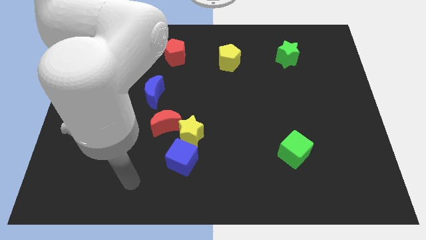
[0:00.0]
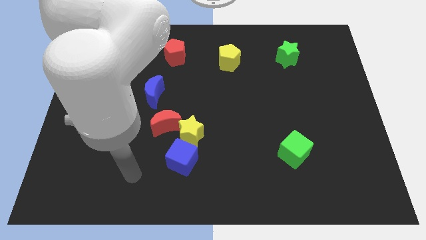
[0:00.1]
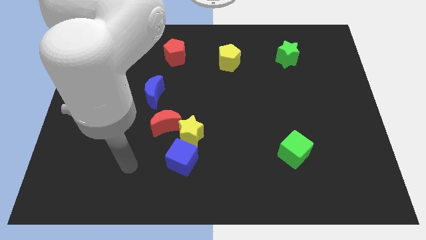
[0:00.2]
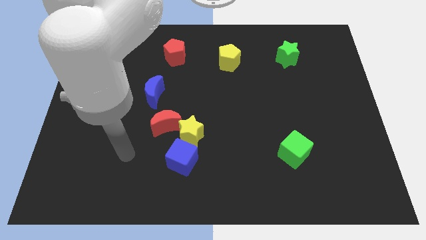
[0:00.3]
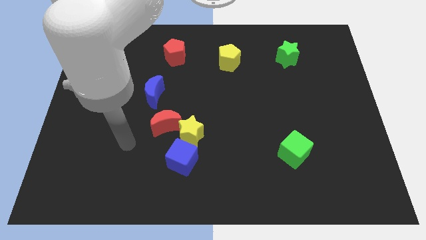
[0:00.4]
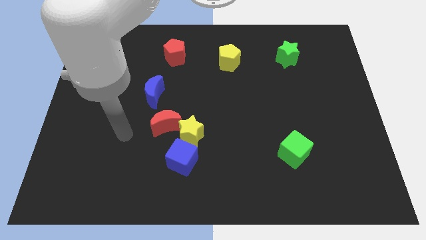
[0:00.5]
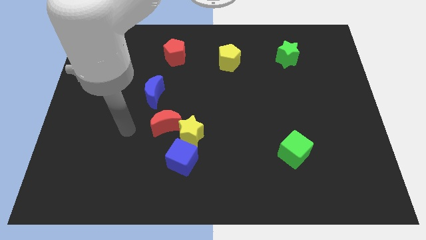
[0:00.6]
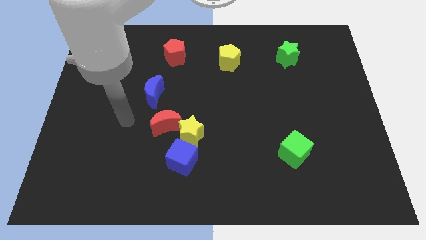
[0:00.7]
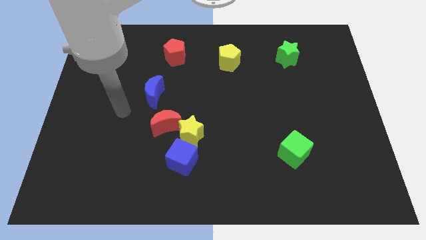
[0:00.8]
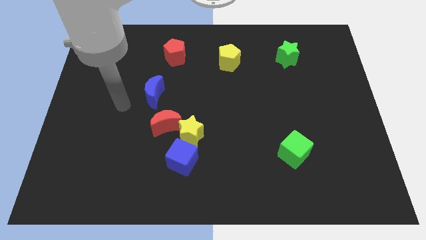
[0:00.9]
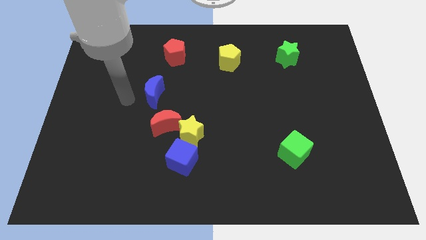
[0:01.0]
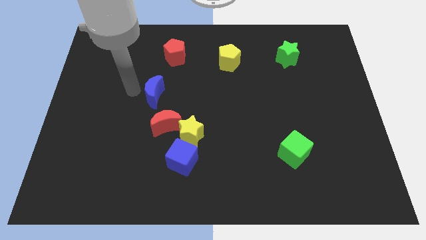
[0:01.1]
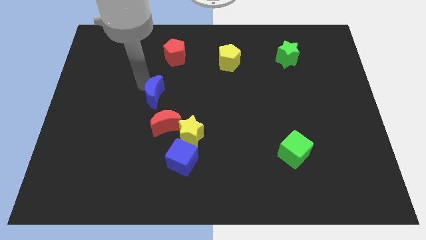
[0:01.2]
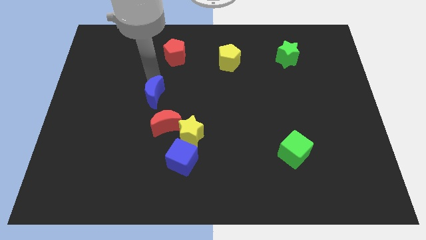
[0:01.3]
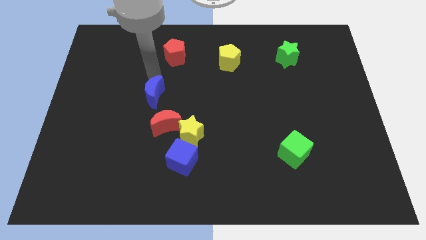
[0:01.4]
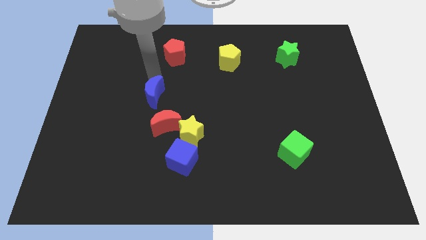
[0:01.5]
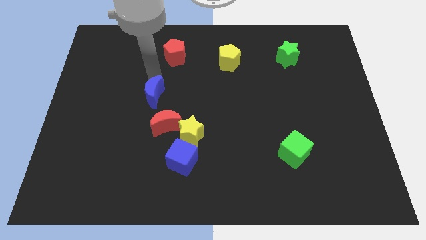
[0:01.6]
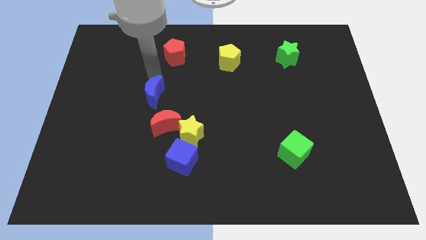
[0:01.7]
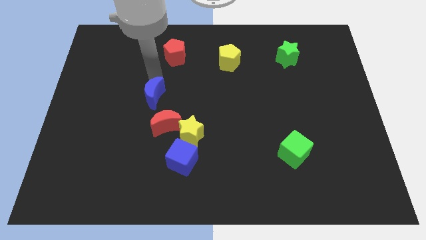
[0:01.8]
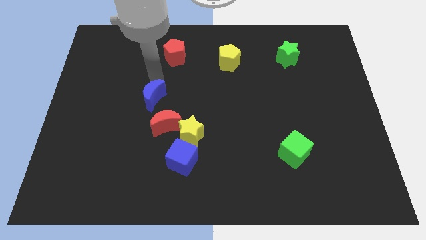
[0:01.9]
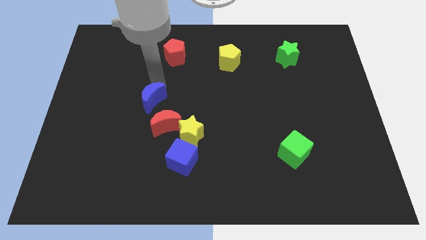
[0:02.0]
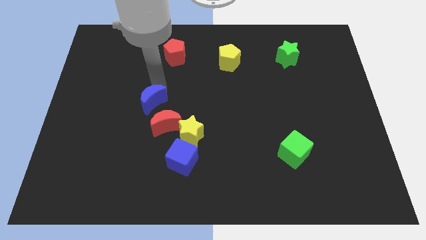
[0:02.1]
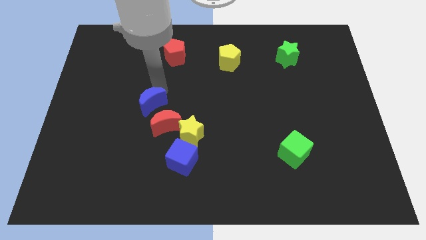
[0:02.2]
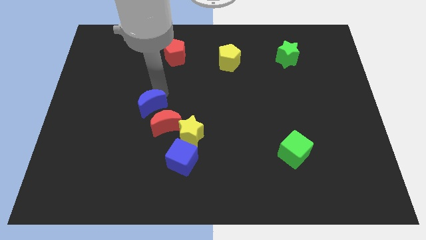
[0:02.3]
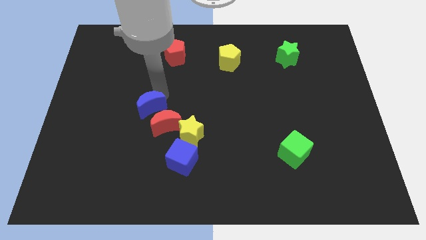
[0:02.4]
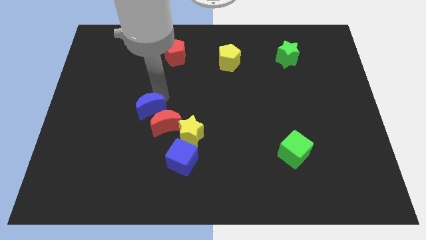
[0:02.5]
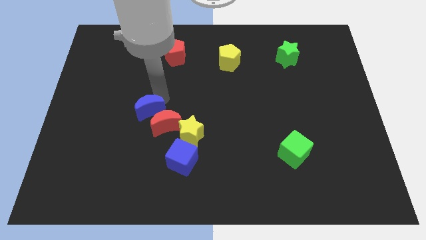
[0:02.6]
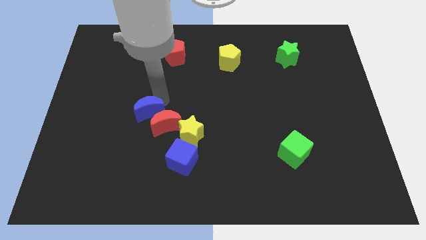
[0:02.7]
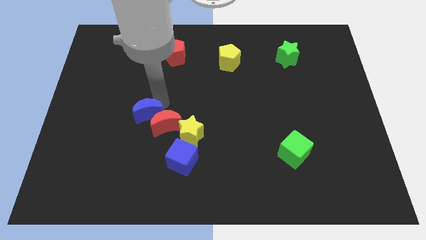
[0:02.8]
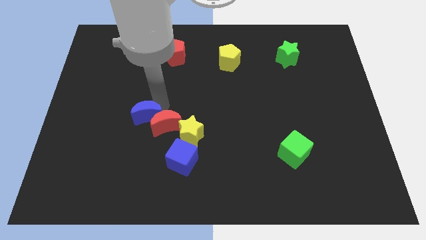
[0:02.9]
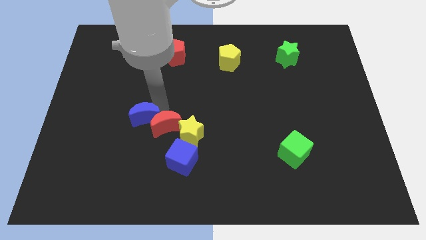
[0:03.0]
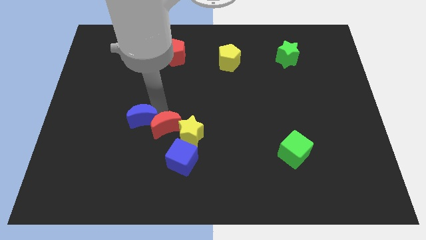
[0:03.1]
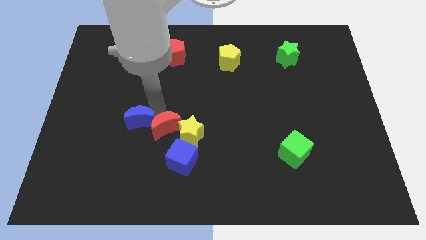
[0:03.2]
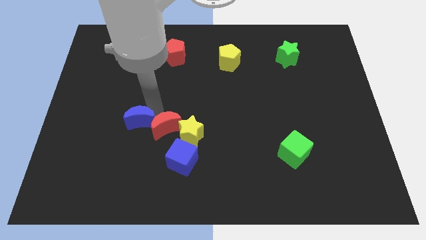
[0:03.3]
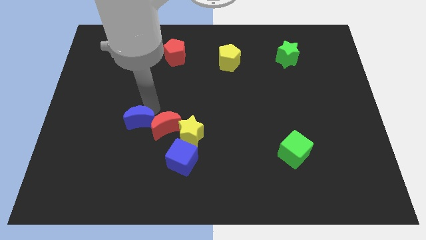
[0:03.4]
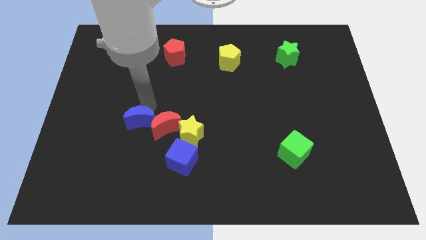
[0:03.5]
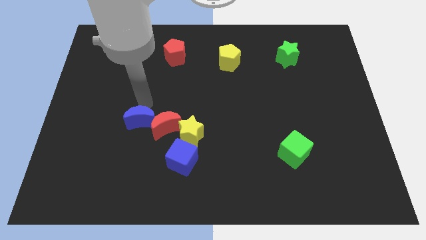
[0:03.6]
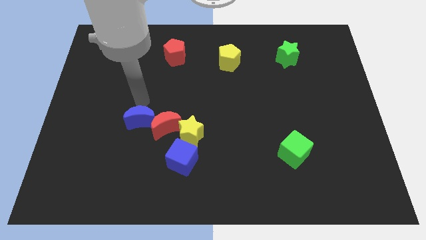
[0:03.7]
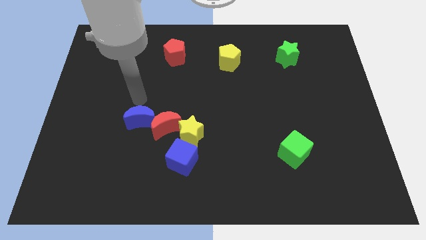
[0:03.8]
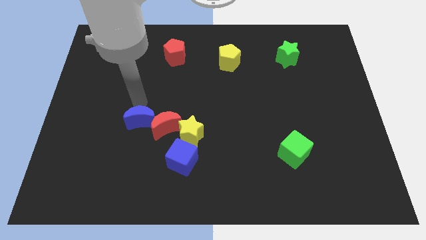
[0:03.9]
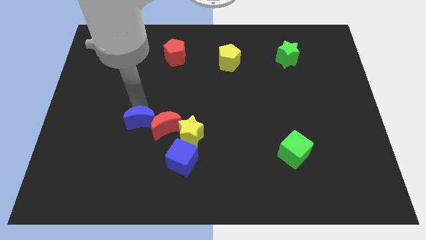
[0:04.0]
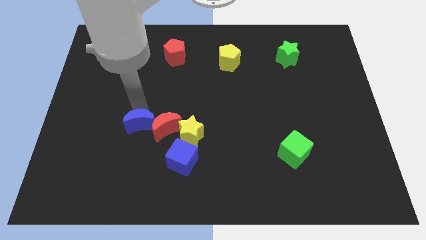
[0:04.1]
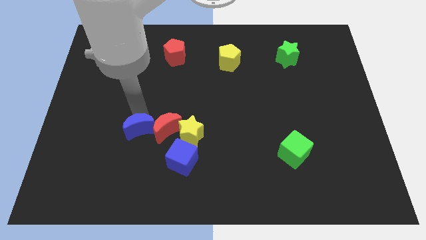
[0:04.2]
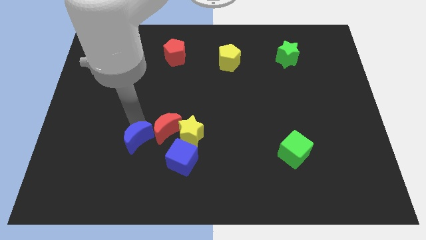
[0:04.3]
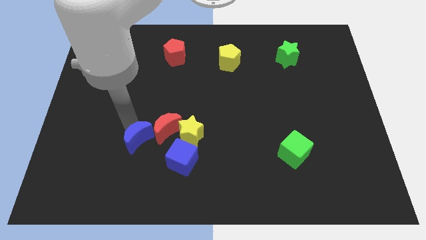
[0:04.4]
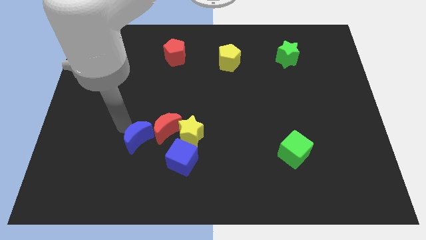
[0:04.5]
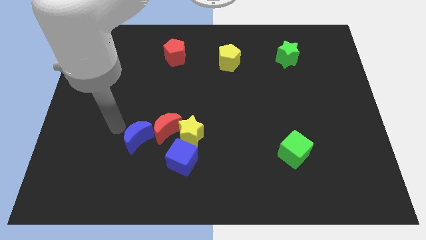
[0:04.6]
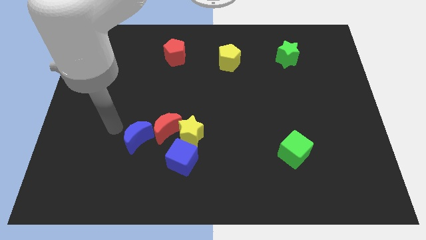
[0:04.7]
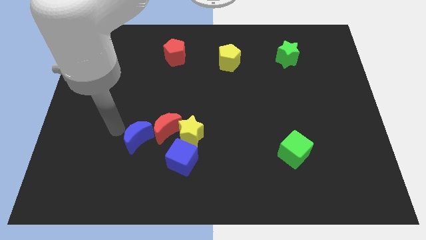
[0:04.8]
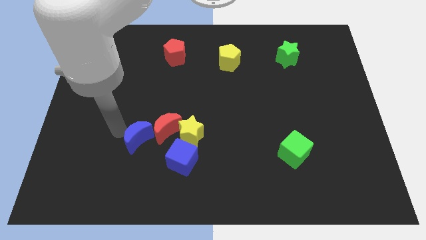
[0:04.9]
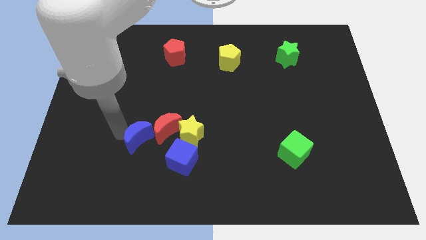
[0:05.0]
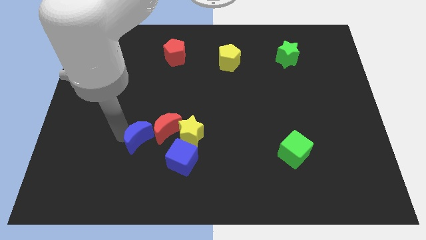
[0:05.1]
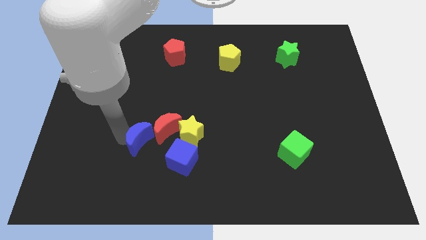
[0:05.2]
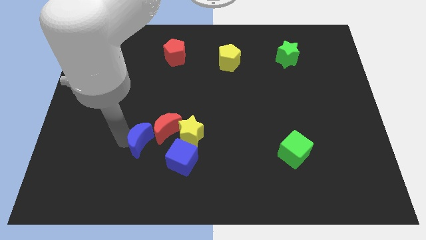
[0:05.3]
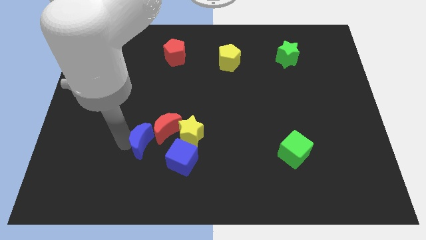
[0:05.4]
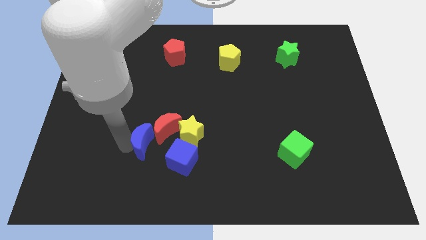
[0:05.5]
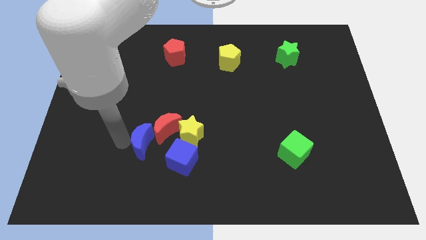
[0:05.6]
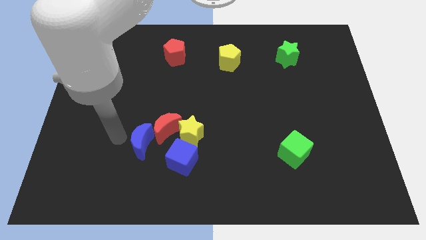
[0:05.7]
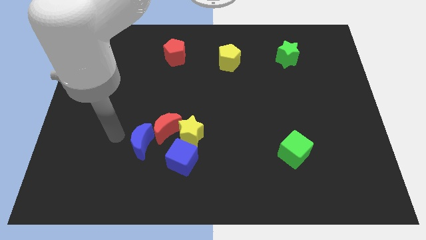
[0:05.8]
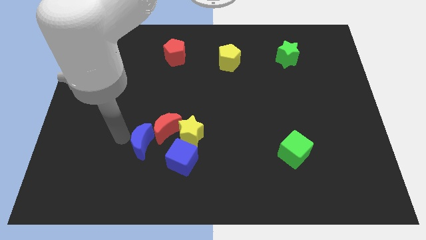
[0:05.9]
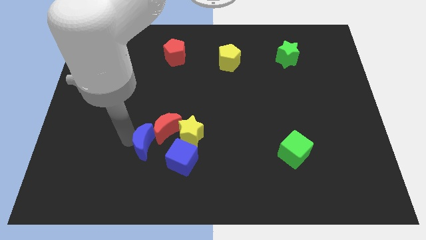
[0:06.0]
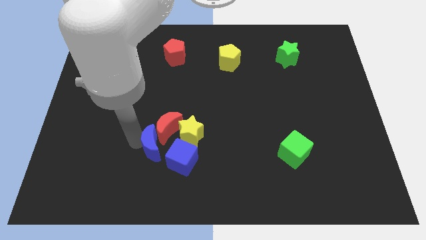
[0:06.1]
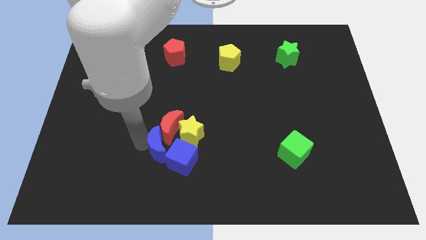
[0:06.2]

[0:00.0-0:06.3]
put the blue moon to the blue cube

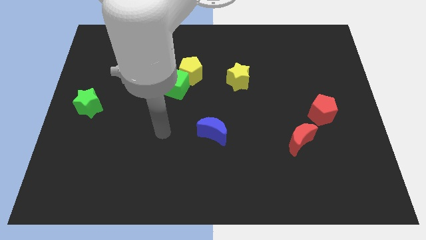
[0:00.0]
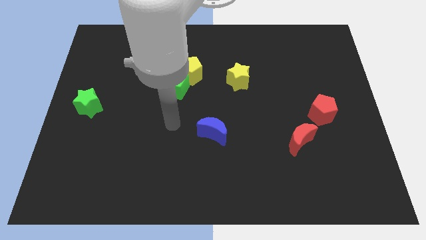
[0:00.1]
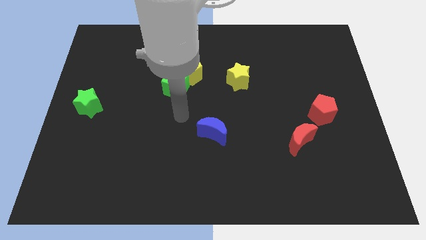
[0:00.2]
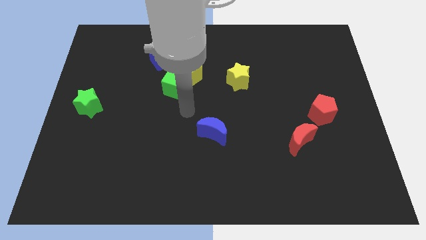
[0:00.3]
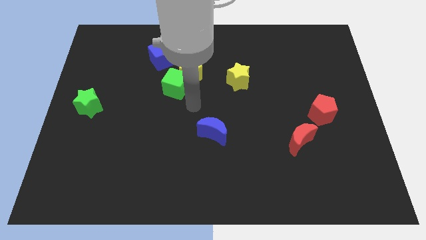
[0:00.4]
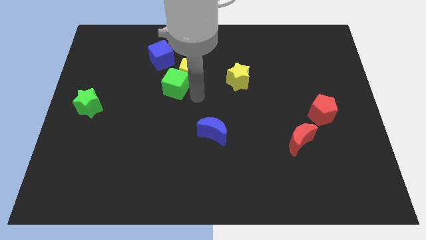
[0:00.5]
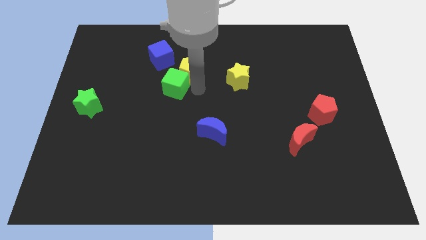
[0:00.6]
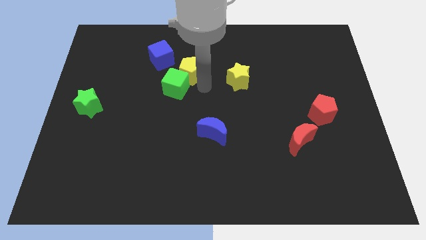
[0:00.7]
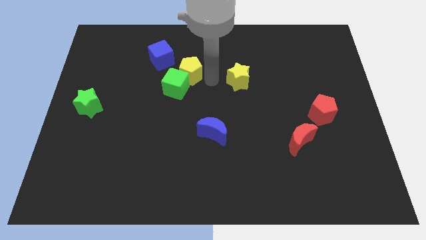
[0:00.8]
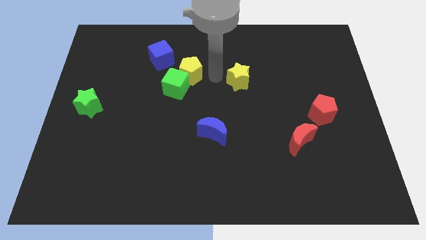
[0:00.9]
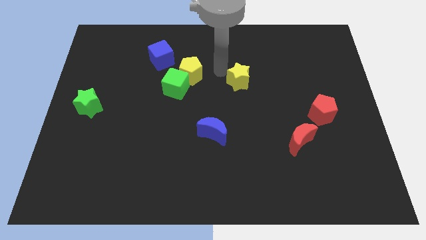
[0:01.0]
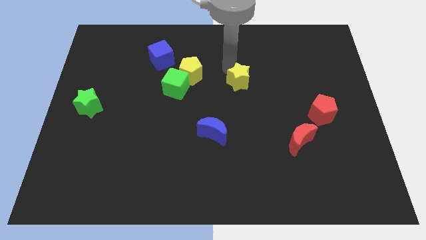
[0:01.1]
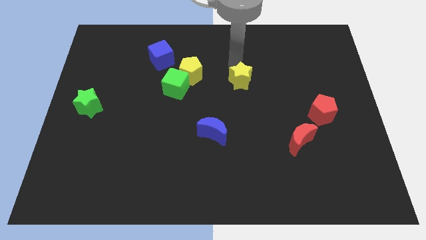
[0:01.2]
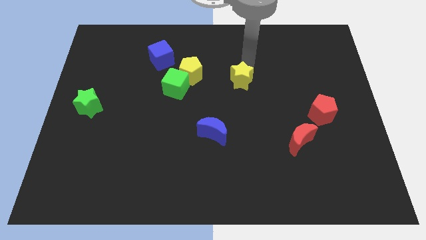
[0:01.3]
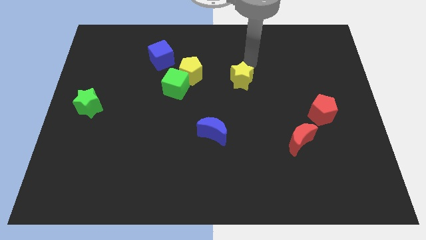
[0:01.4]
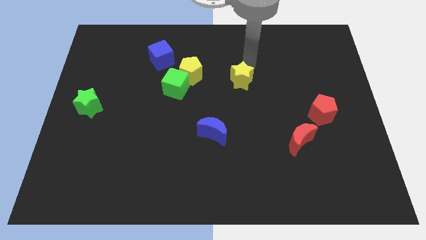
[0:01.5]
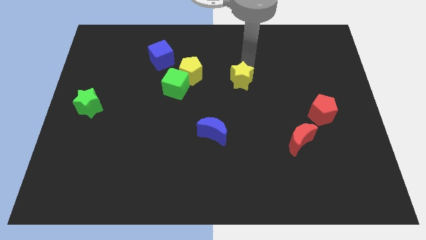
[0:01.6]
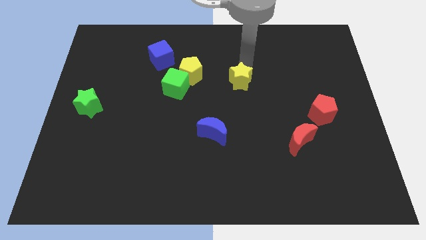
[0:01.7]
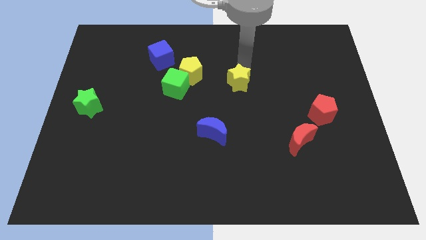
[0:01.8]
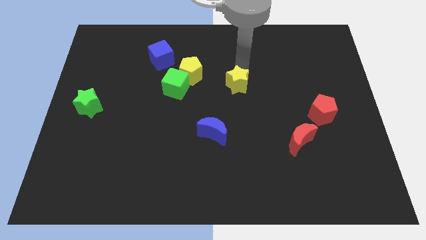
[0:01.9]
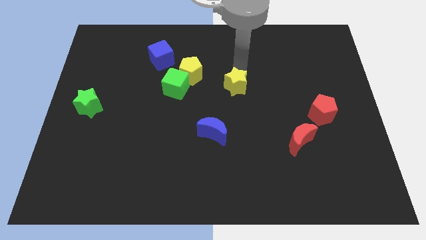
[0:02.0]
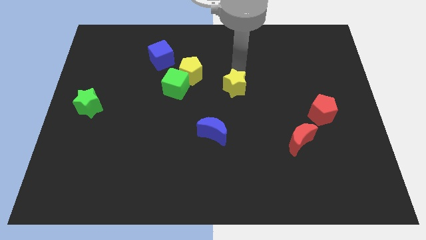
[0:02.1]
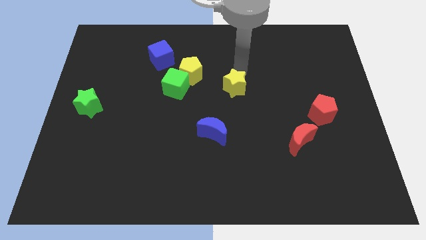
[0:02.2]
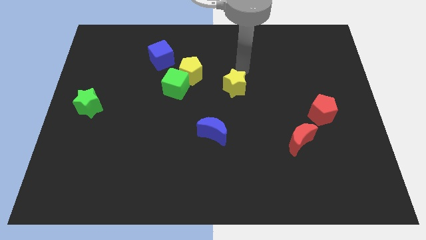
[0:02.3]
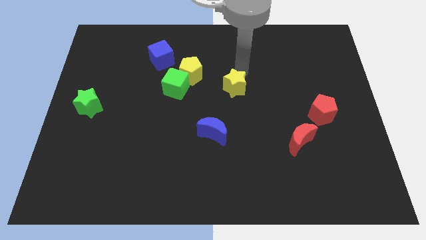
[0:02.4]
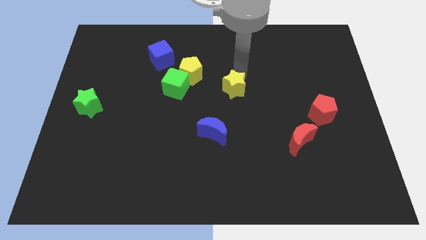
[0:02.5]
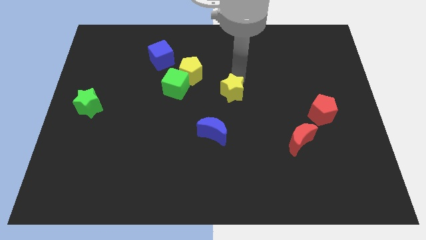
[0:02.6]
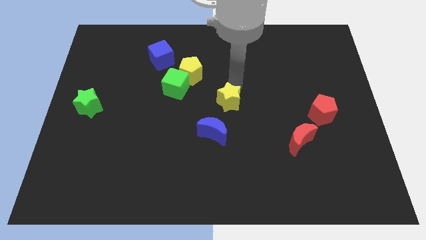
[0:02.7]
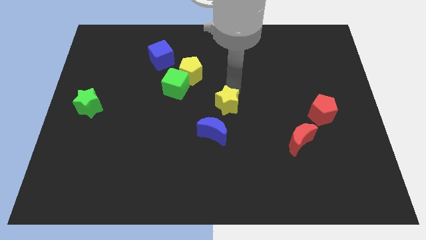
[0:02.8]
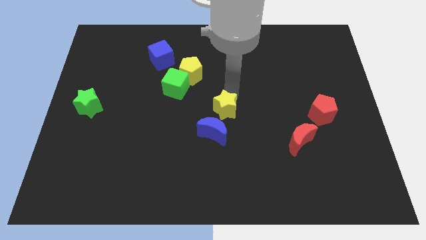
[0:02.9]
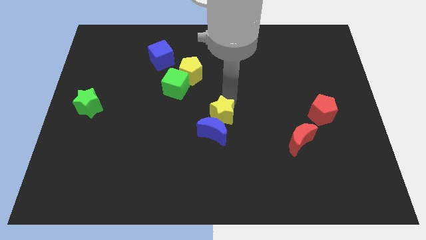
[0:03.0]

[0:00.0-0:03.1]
push the yellow star close to the blue moon
